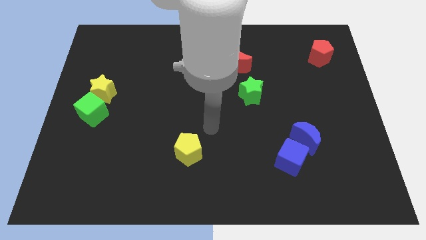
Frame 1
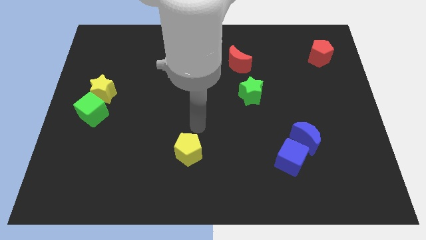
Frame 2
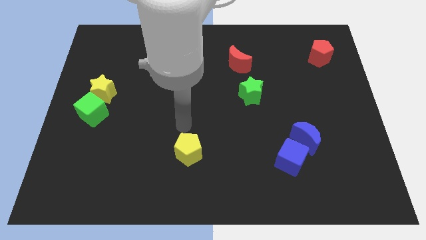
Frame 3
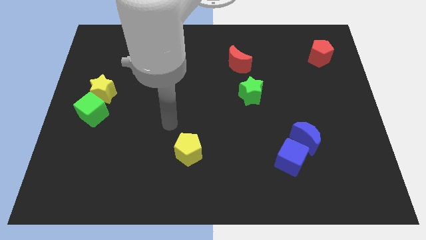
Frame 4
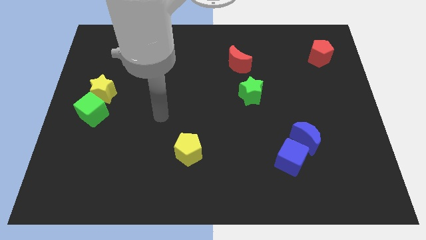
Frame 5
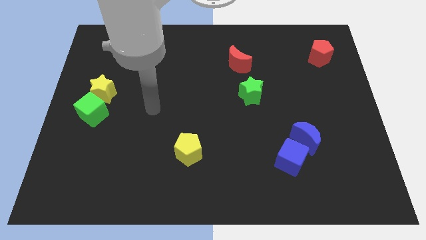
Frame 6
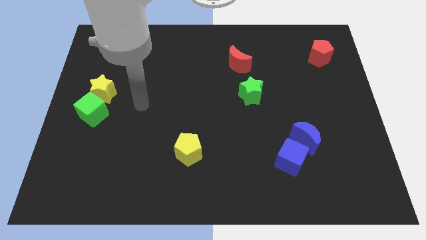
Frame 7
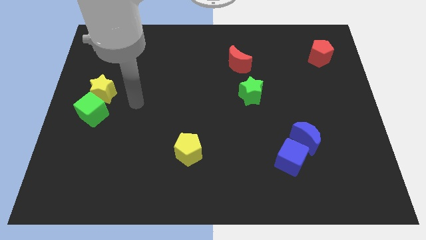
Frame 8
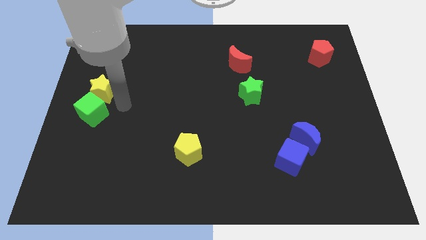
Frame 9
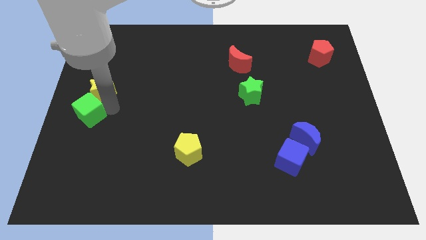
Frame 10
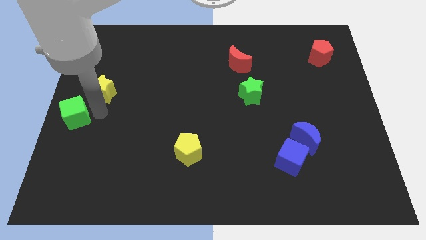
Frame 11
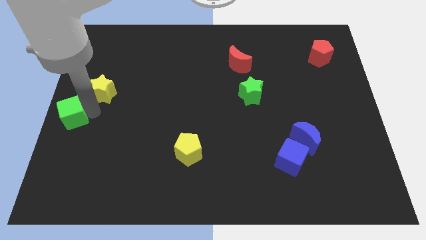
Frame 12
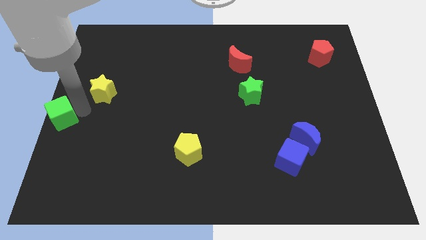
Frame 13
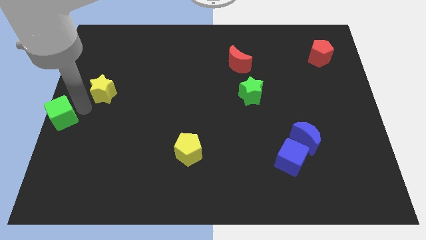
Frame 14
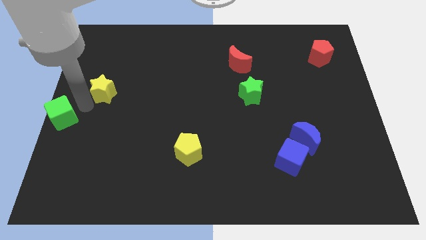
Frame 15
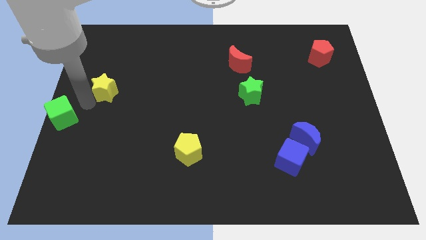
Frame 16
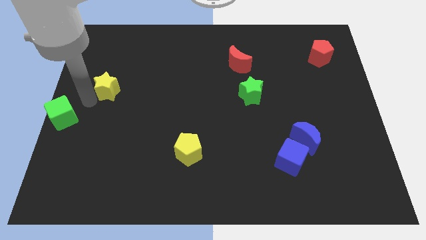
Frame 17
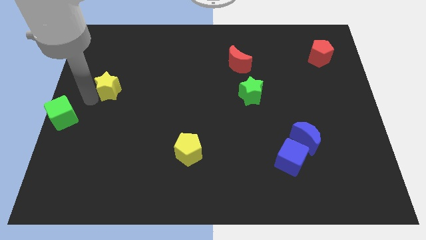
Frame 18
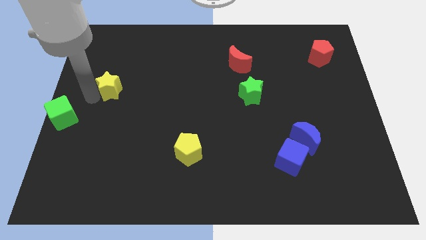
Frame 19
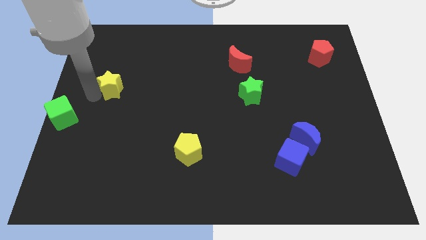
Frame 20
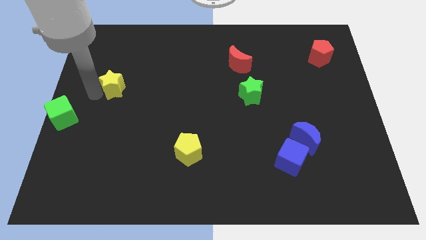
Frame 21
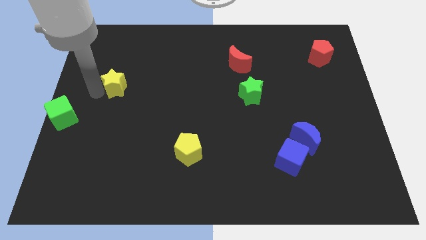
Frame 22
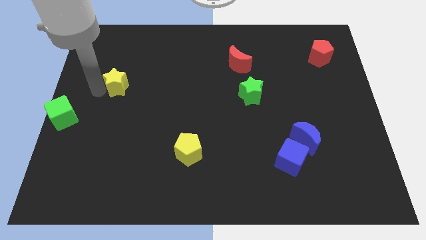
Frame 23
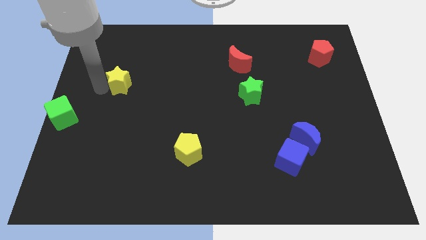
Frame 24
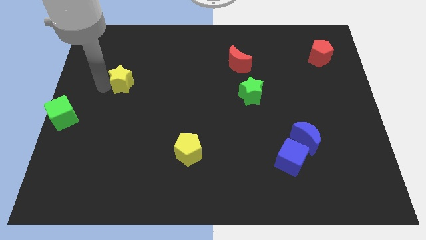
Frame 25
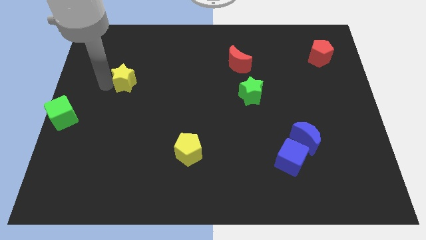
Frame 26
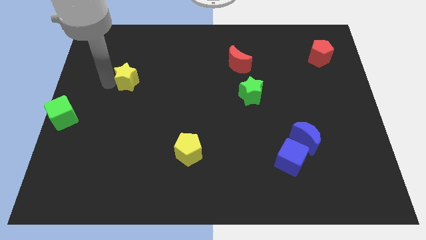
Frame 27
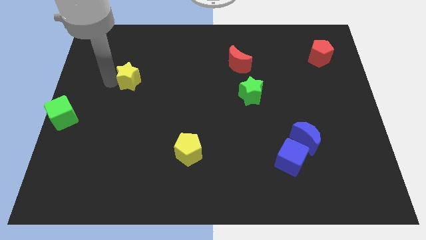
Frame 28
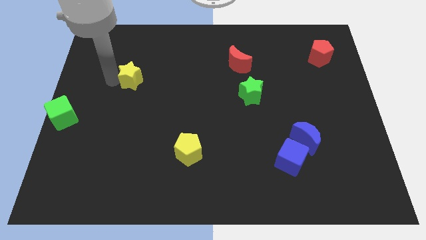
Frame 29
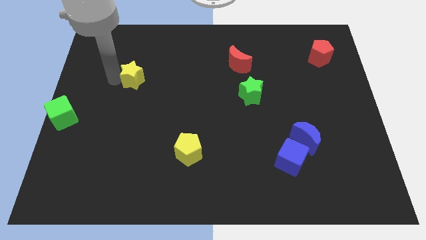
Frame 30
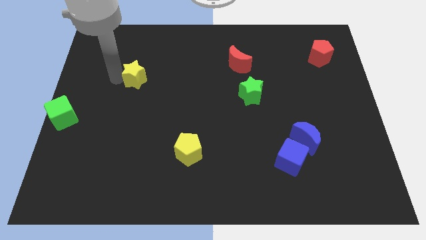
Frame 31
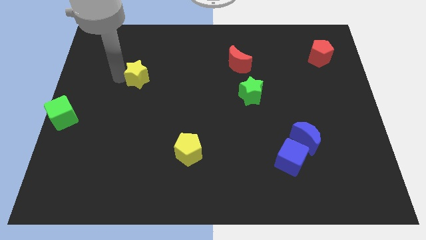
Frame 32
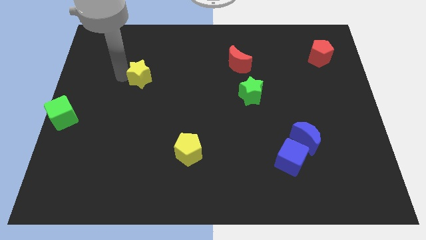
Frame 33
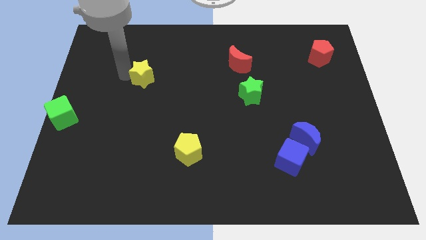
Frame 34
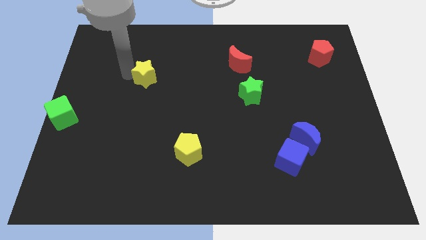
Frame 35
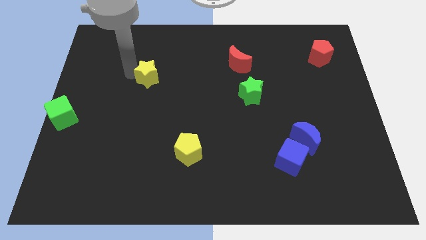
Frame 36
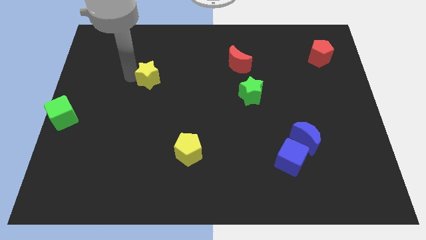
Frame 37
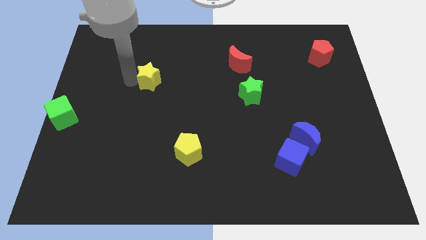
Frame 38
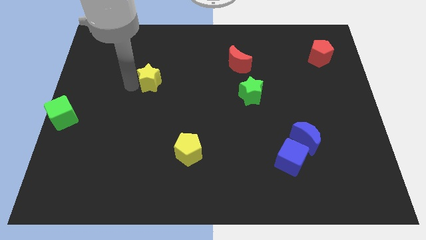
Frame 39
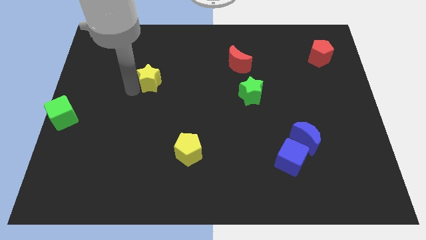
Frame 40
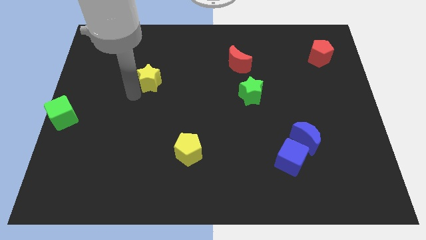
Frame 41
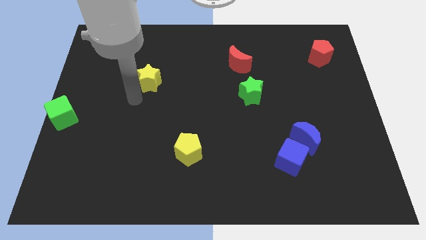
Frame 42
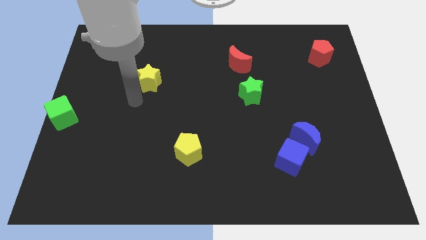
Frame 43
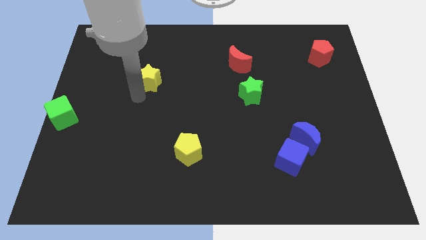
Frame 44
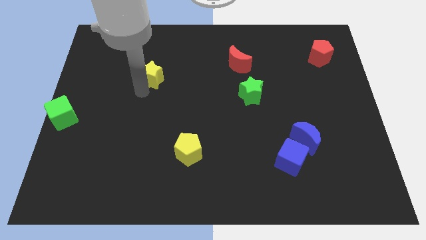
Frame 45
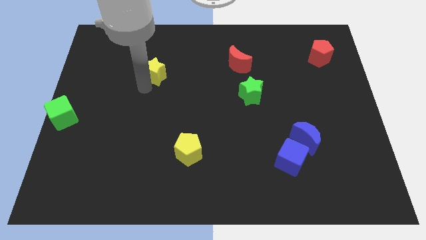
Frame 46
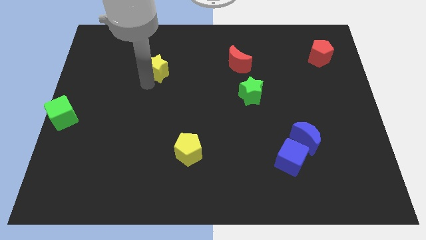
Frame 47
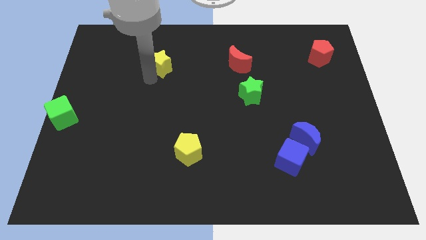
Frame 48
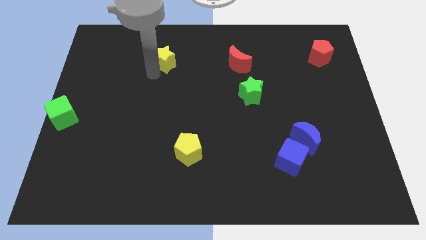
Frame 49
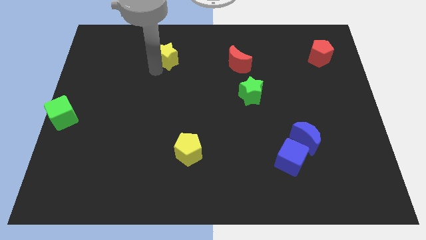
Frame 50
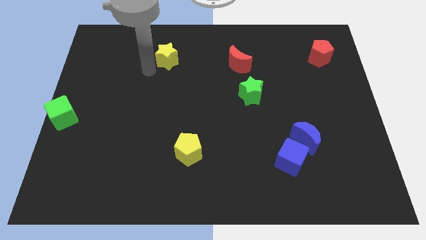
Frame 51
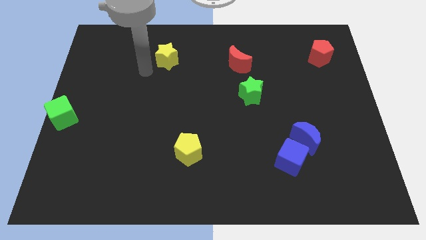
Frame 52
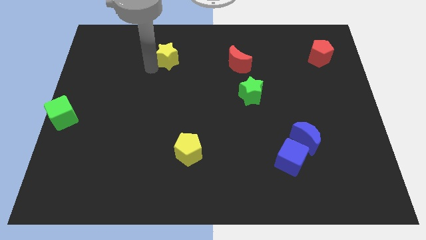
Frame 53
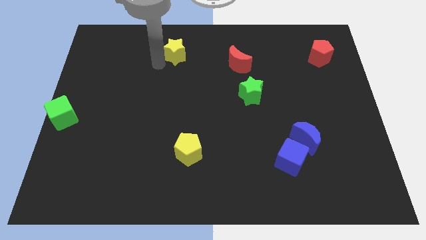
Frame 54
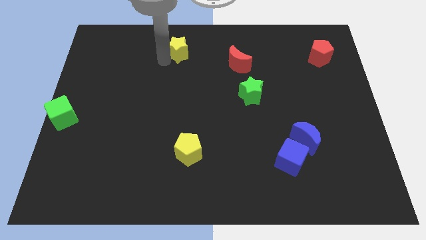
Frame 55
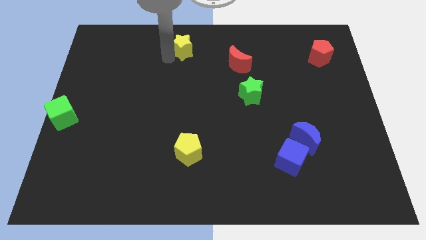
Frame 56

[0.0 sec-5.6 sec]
slide the yellow star to the top

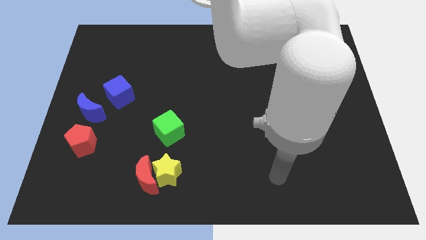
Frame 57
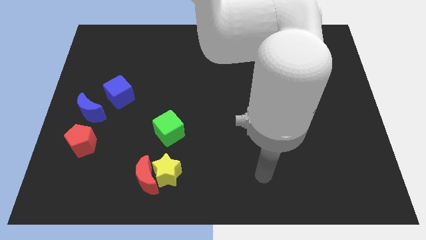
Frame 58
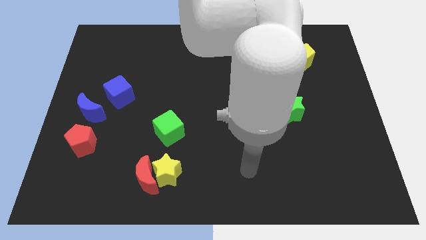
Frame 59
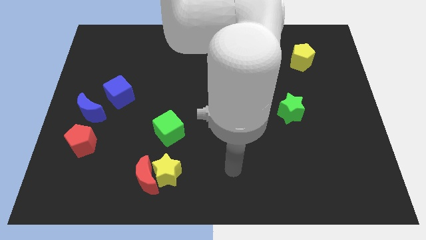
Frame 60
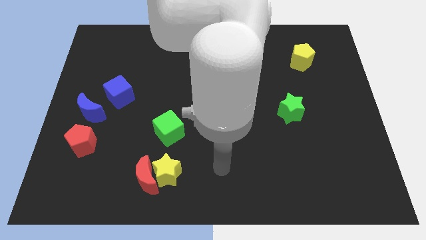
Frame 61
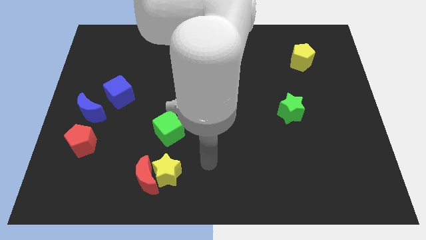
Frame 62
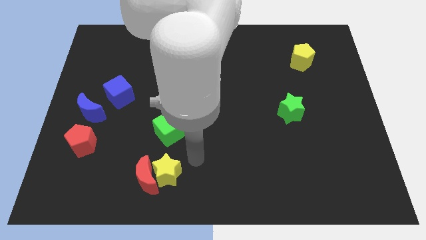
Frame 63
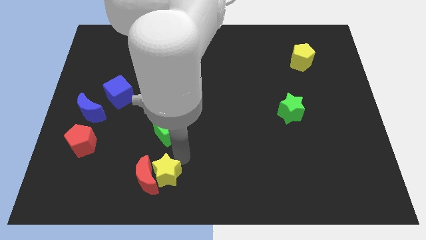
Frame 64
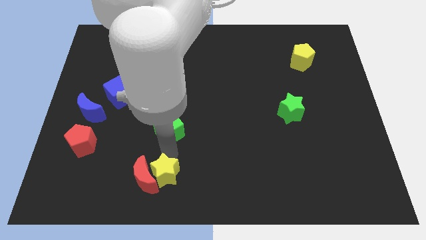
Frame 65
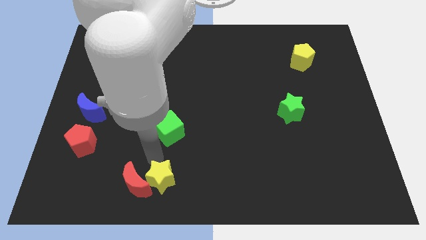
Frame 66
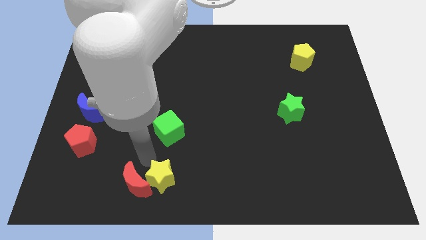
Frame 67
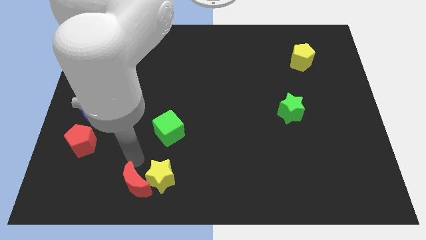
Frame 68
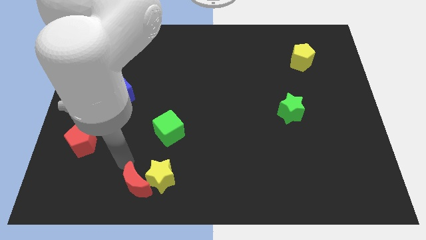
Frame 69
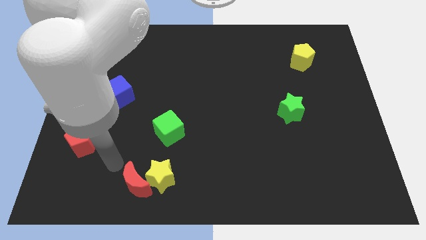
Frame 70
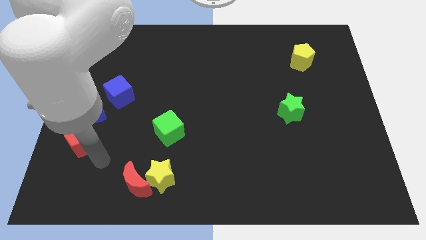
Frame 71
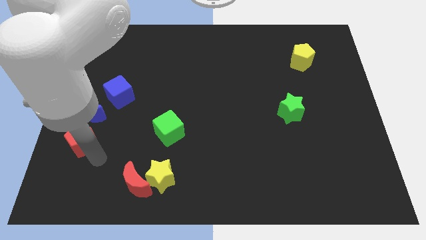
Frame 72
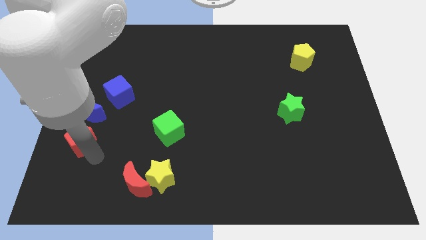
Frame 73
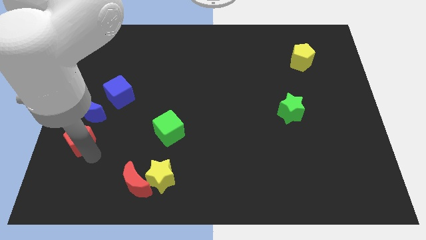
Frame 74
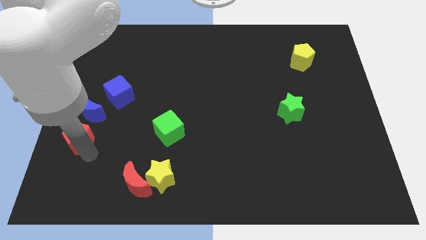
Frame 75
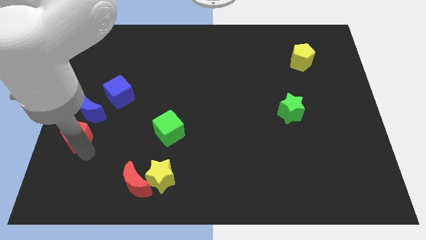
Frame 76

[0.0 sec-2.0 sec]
push the red pentagon to the left side
